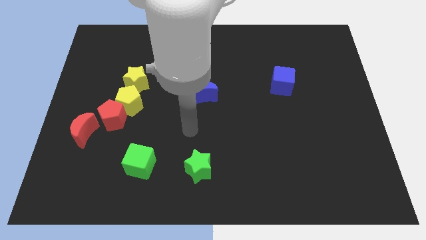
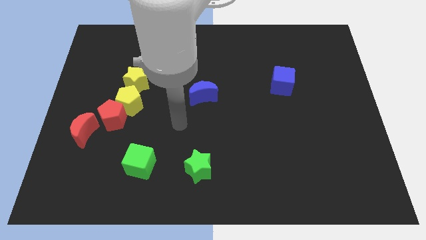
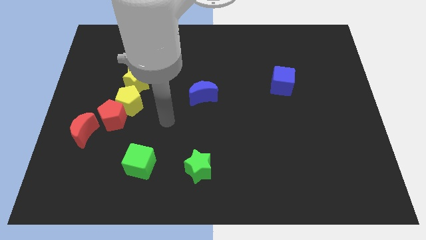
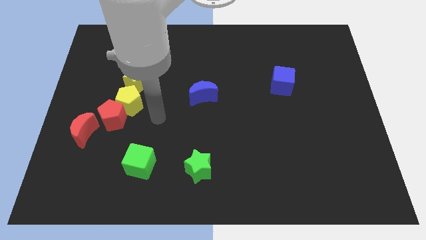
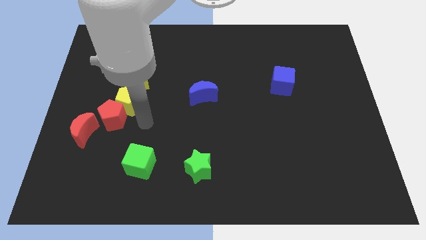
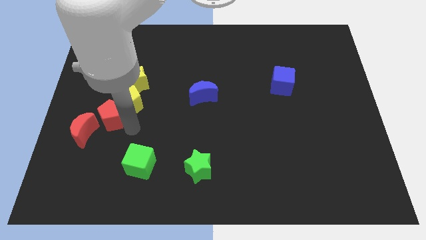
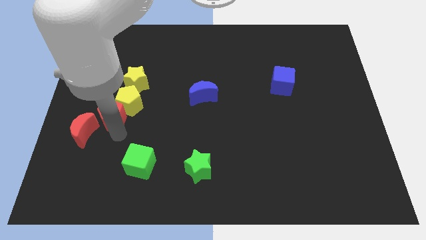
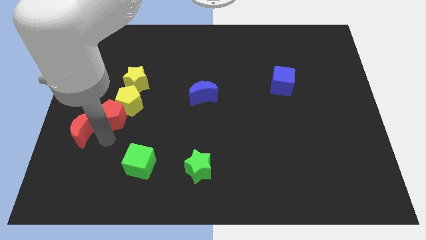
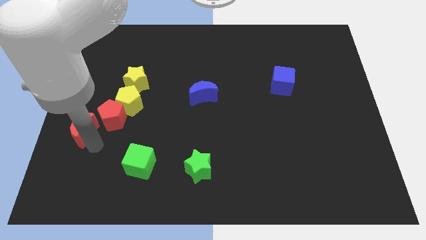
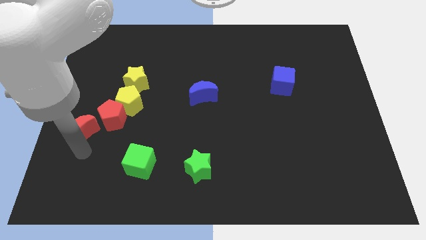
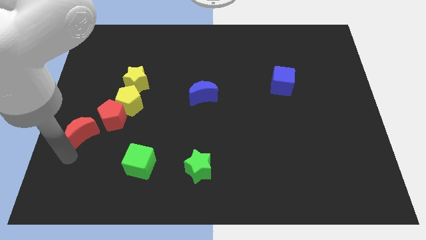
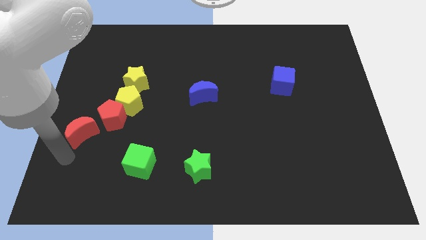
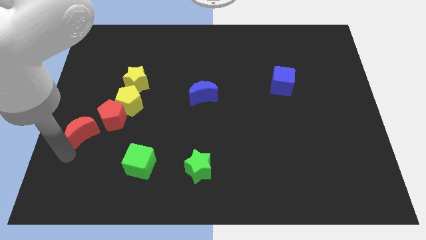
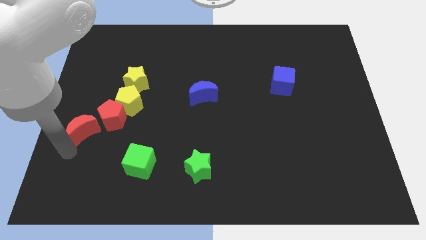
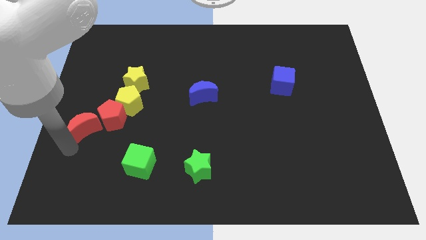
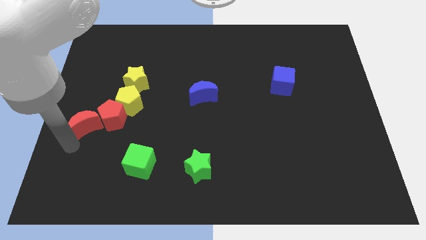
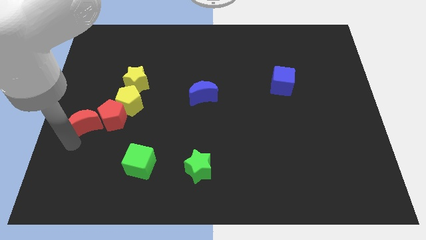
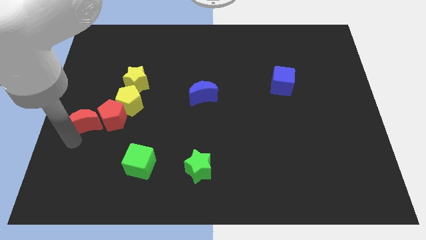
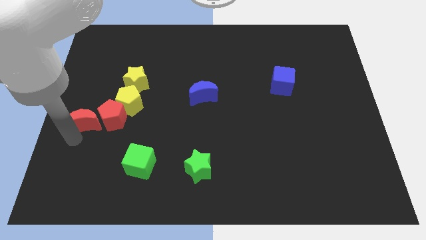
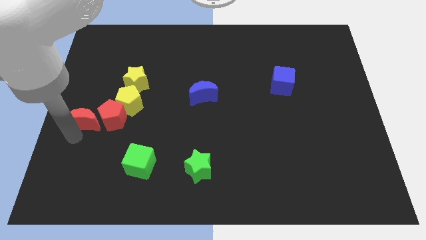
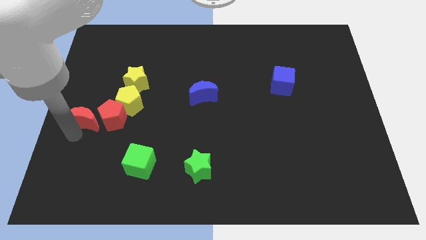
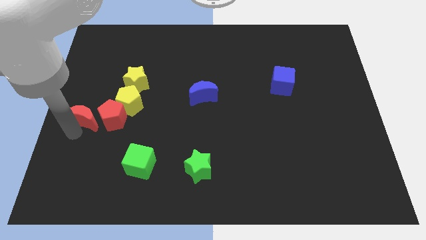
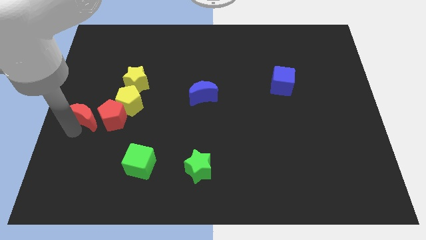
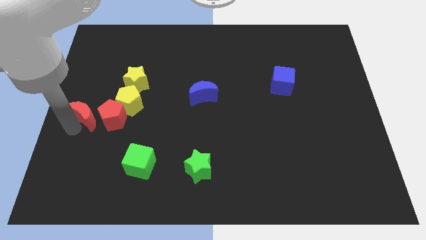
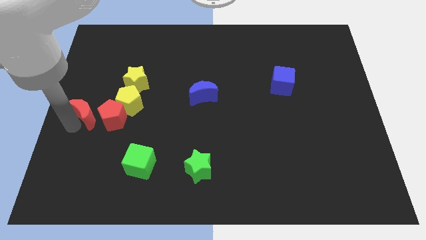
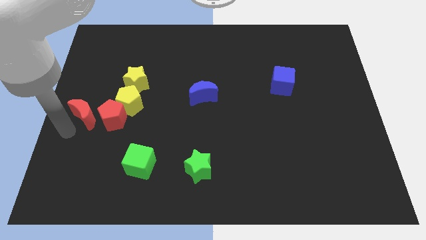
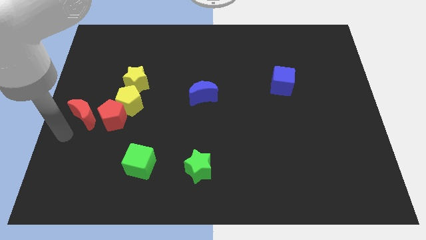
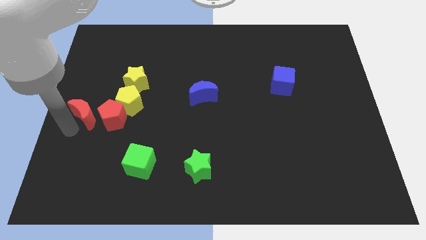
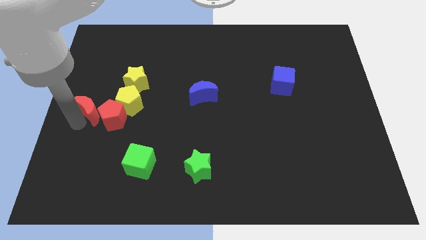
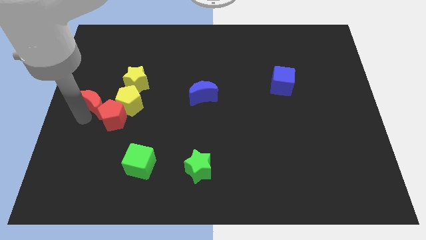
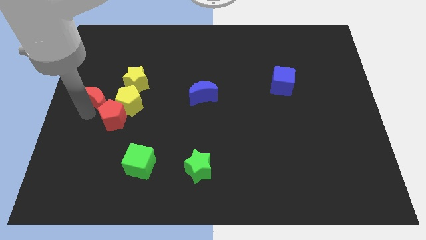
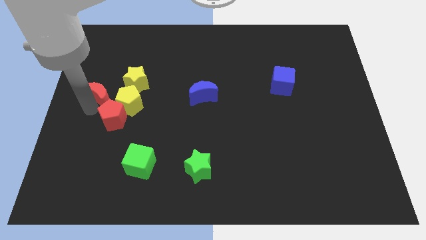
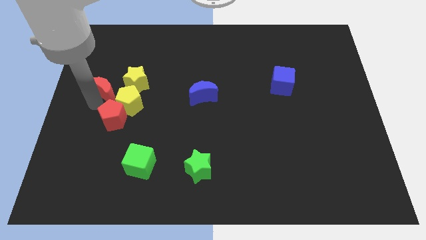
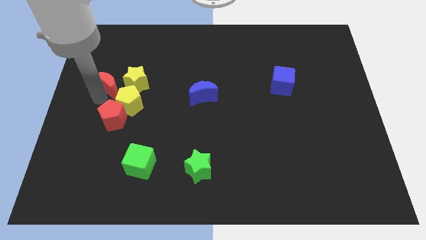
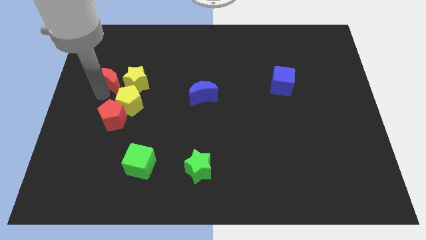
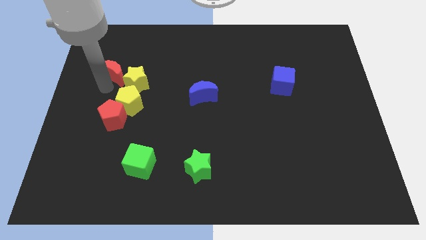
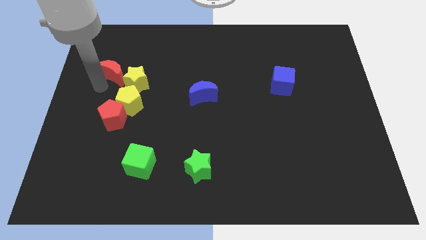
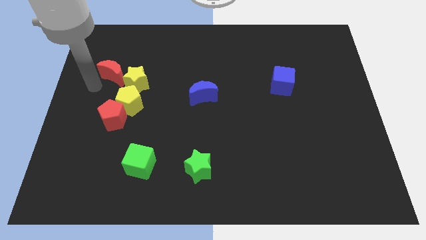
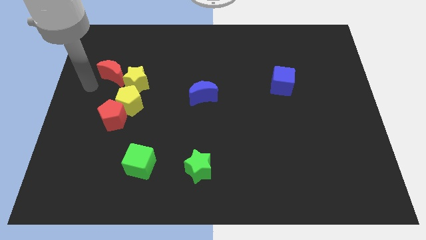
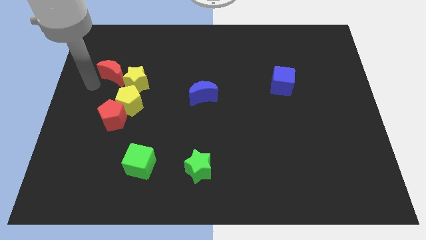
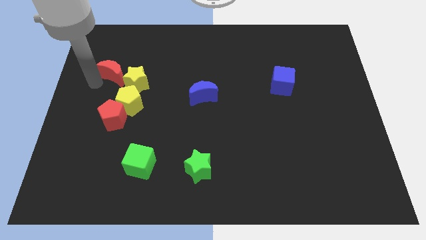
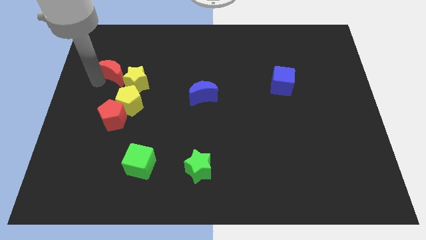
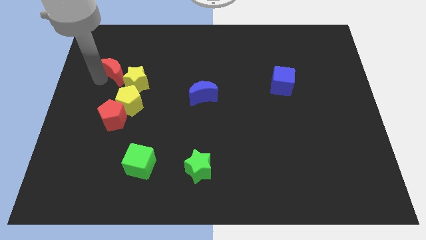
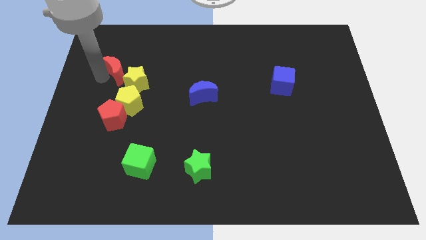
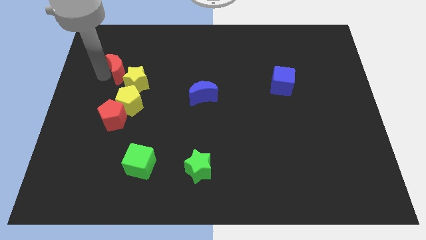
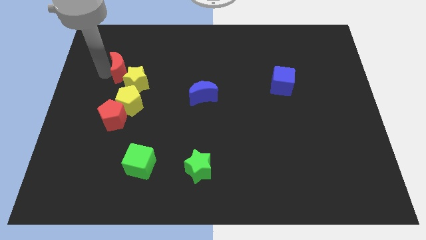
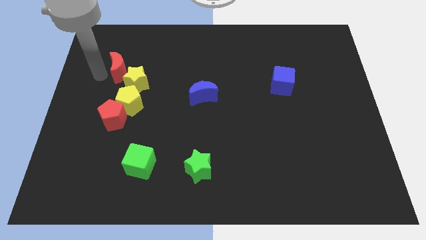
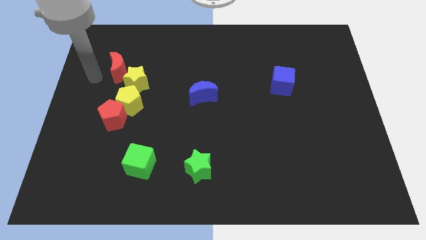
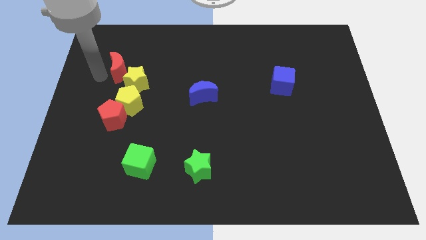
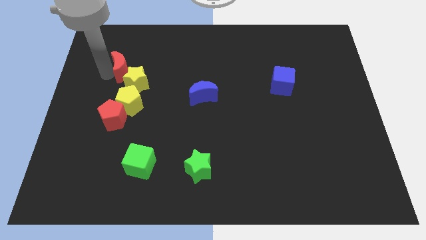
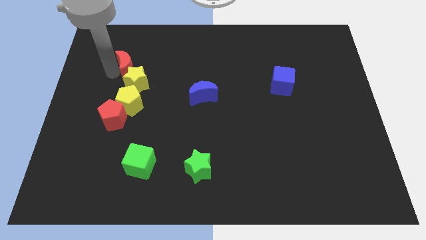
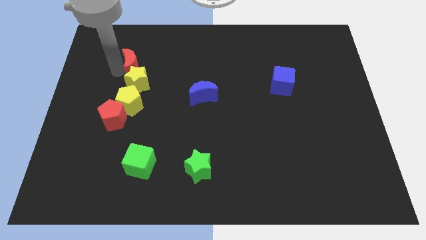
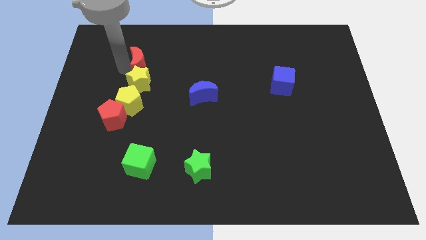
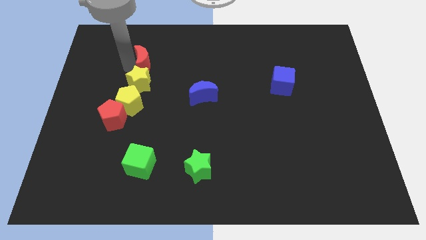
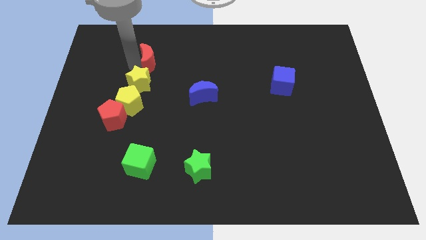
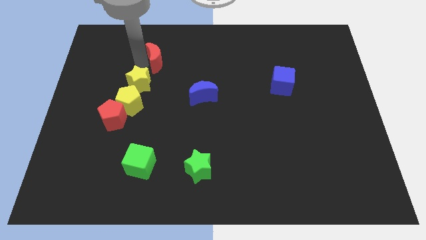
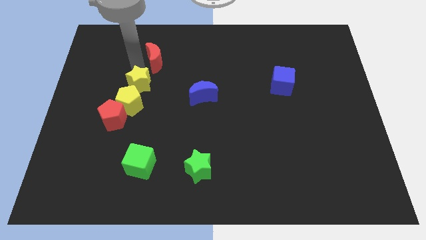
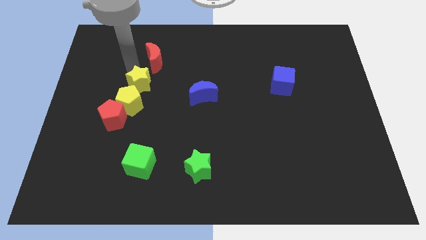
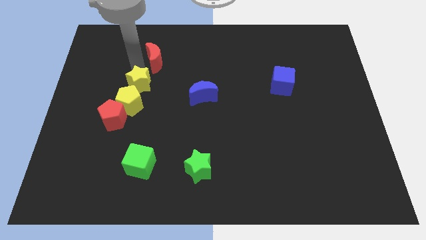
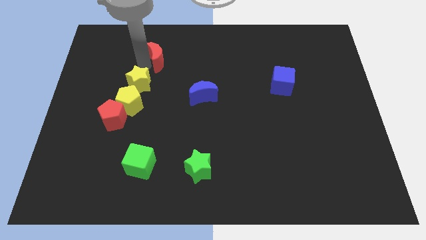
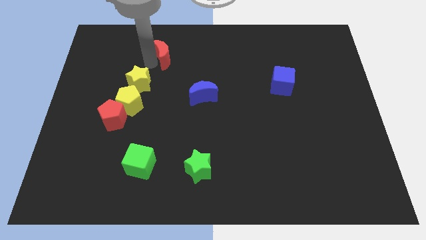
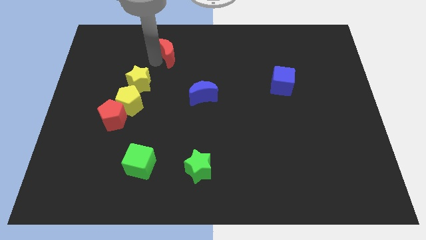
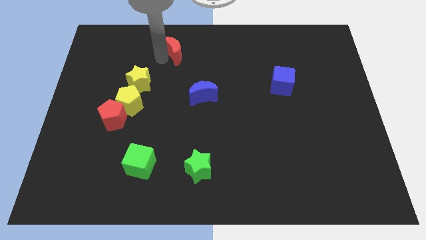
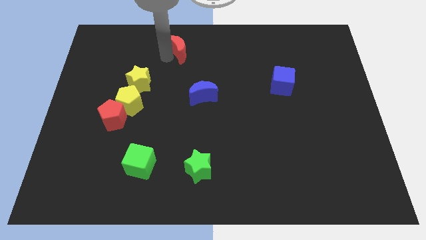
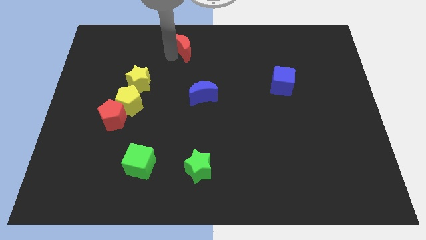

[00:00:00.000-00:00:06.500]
move the red moon to the towards your base
